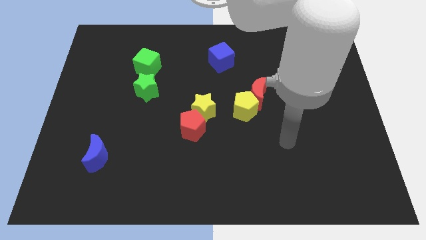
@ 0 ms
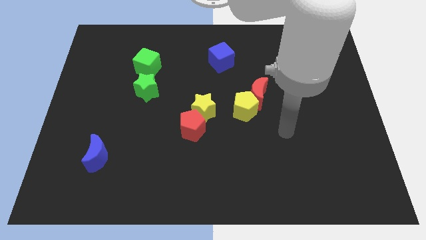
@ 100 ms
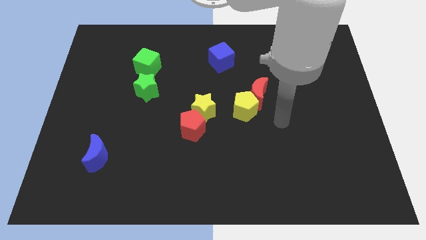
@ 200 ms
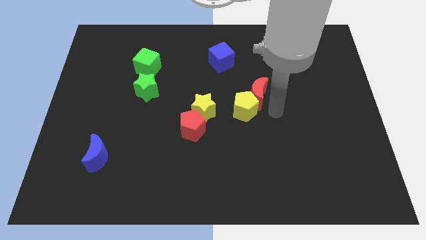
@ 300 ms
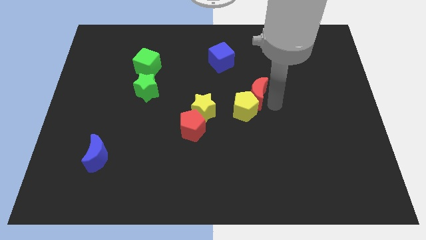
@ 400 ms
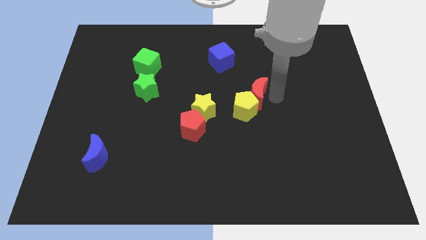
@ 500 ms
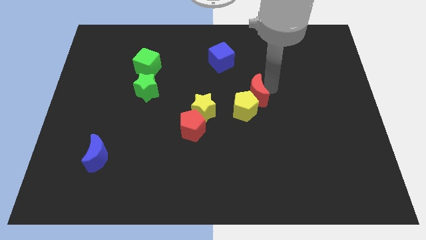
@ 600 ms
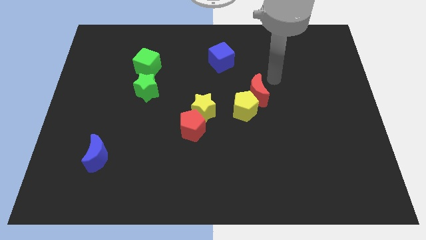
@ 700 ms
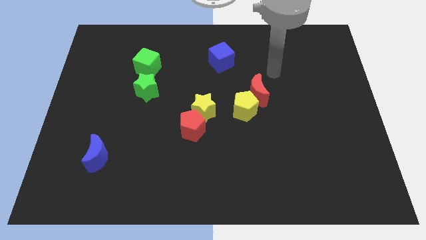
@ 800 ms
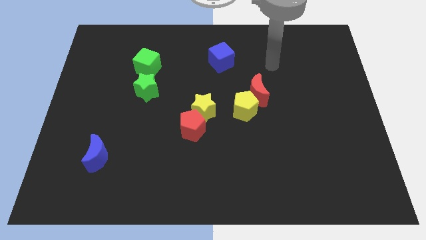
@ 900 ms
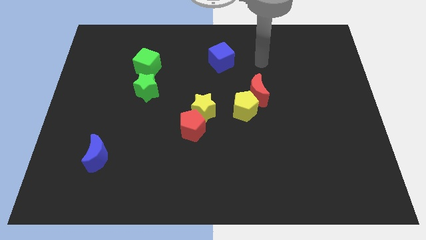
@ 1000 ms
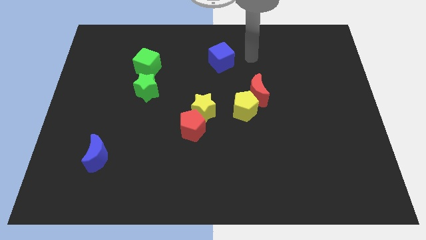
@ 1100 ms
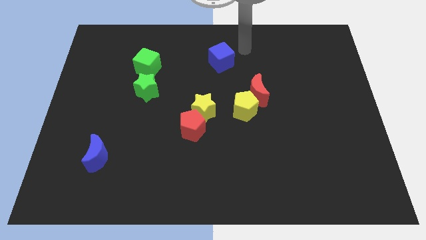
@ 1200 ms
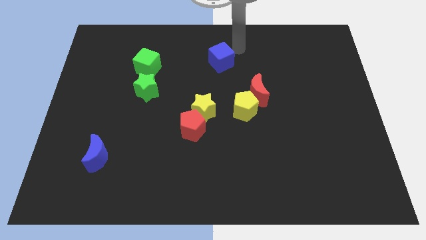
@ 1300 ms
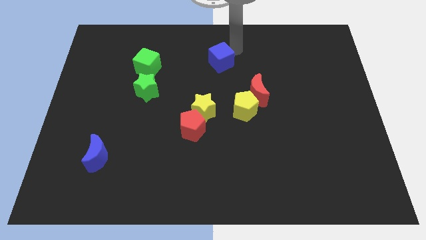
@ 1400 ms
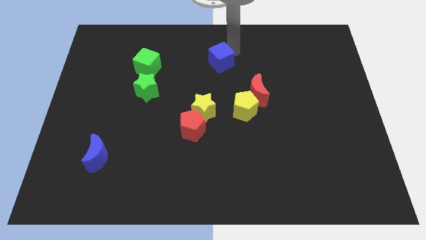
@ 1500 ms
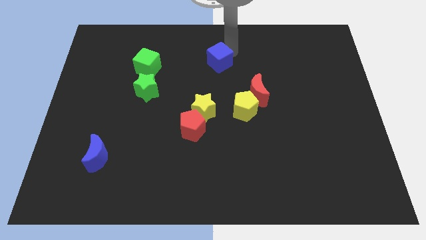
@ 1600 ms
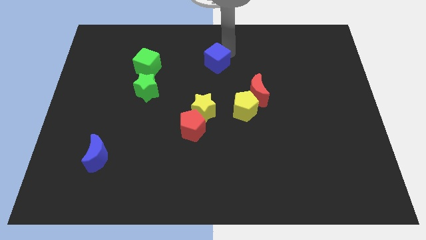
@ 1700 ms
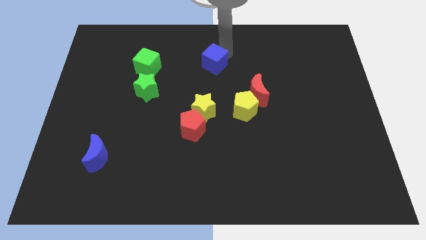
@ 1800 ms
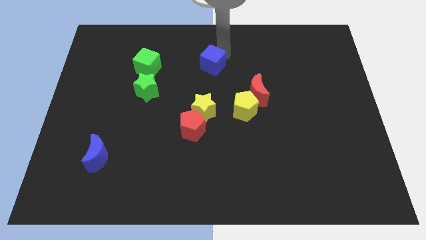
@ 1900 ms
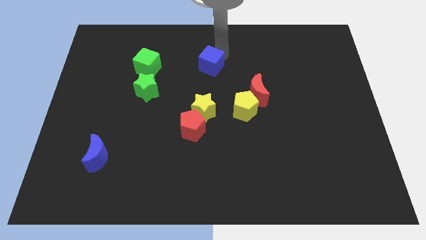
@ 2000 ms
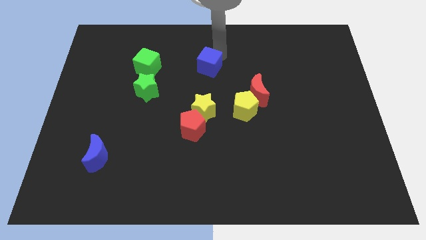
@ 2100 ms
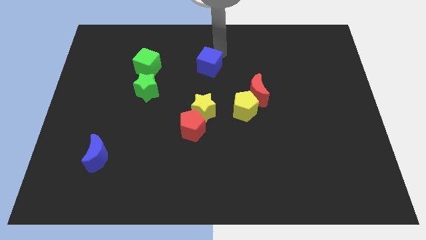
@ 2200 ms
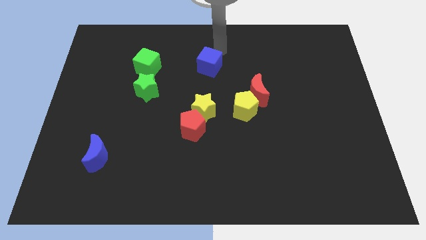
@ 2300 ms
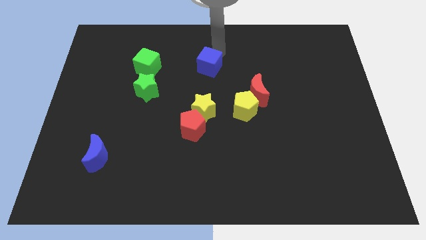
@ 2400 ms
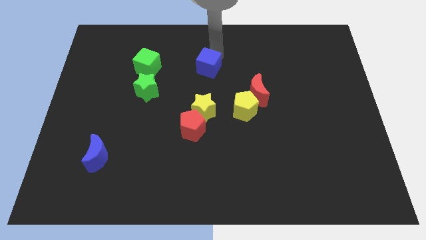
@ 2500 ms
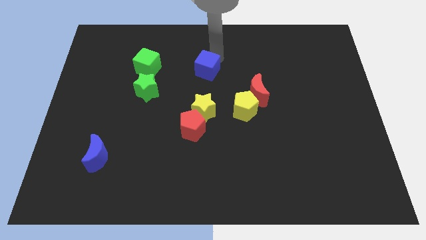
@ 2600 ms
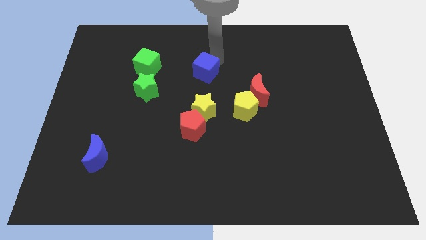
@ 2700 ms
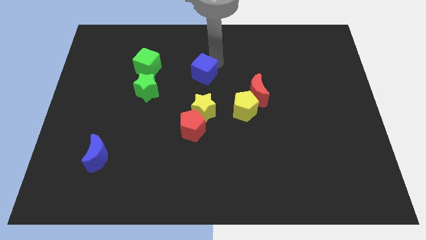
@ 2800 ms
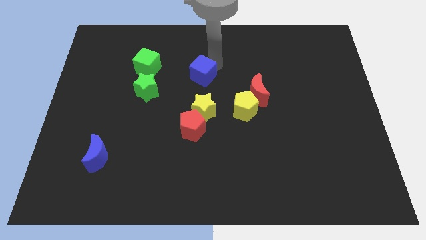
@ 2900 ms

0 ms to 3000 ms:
push the blue cube down and then left slightly

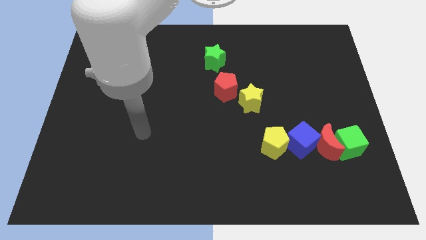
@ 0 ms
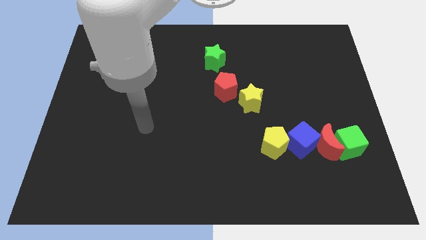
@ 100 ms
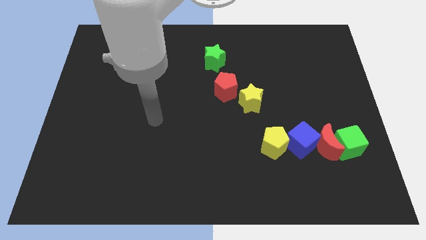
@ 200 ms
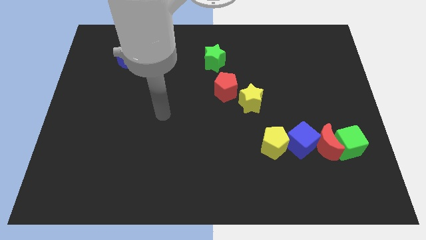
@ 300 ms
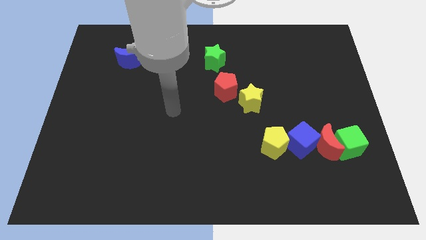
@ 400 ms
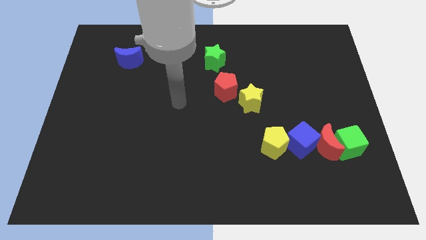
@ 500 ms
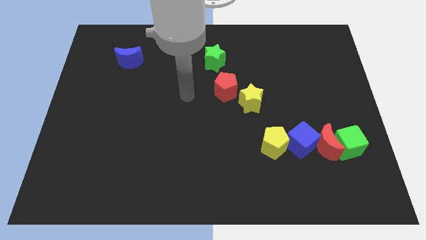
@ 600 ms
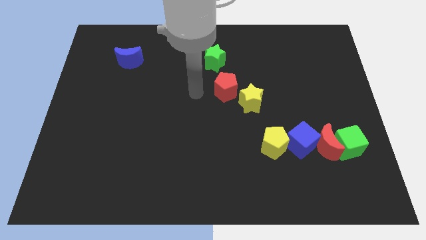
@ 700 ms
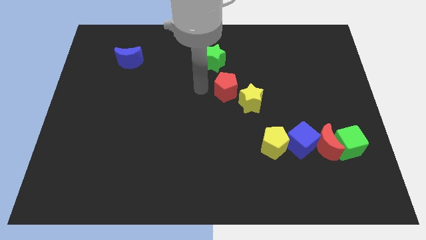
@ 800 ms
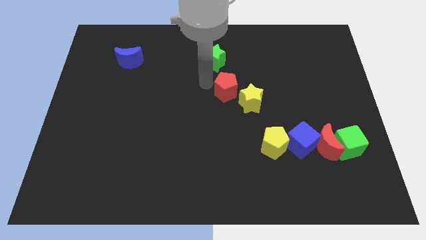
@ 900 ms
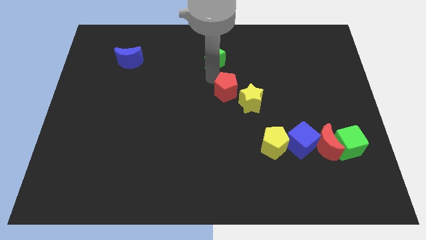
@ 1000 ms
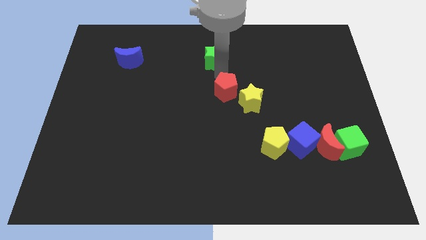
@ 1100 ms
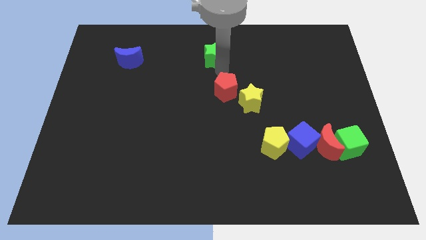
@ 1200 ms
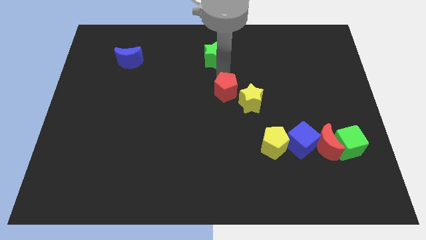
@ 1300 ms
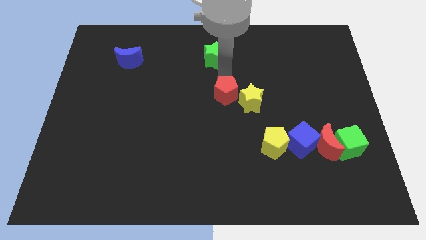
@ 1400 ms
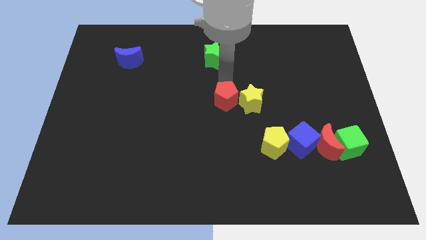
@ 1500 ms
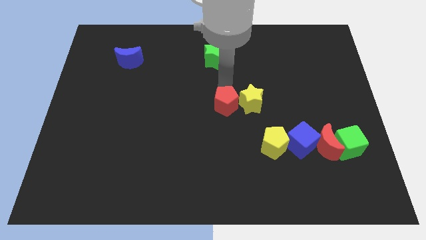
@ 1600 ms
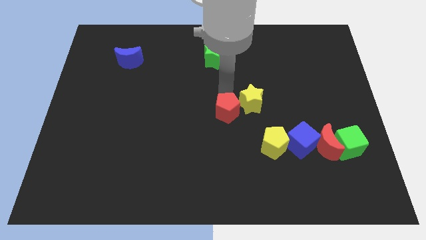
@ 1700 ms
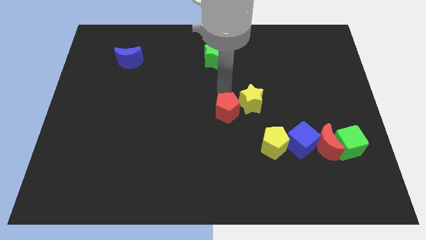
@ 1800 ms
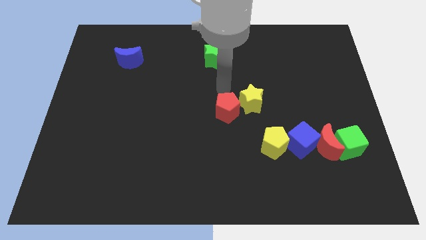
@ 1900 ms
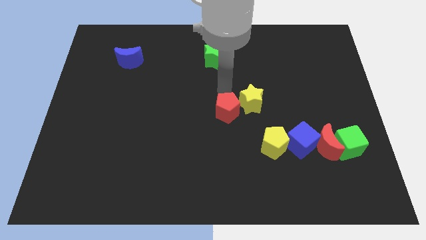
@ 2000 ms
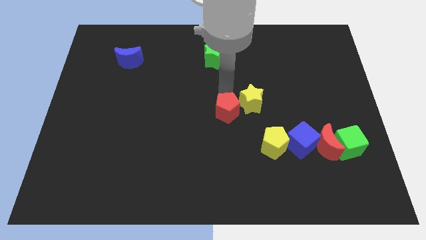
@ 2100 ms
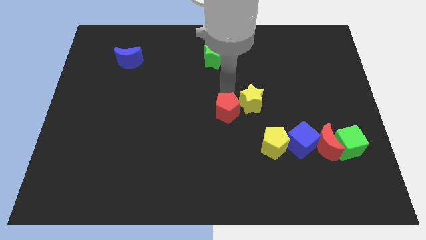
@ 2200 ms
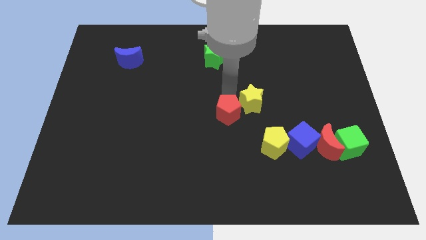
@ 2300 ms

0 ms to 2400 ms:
move the red pentagon somewhat downwards

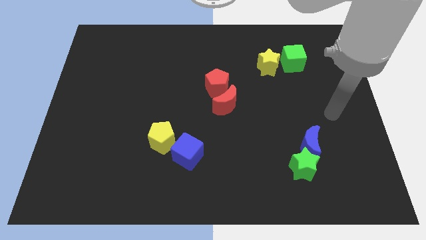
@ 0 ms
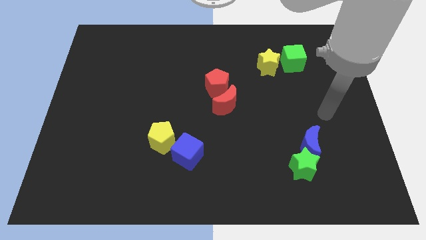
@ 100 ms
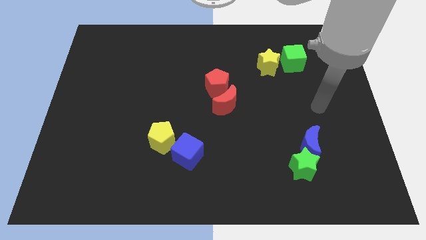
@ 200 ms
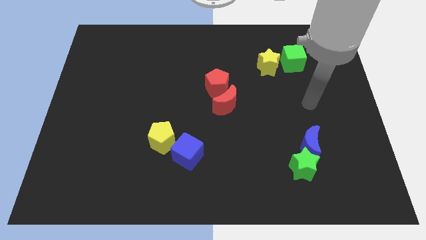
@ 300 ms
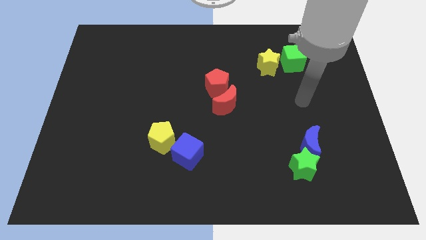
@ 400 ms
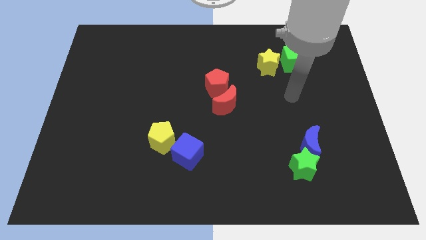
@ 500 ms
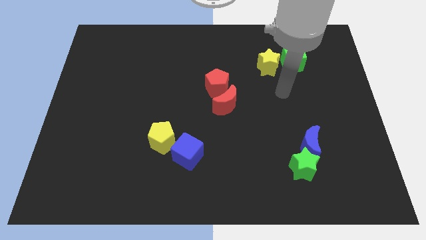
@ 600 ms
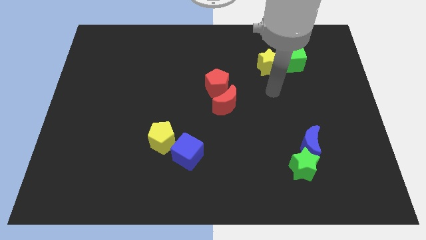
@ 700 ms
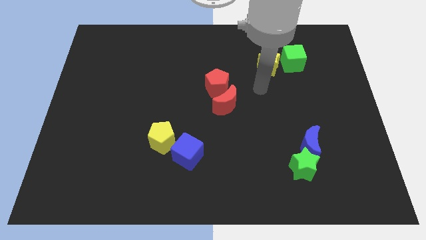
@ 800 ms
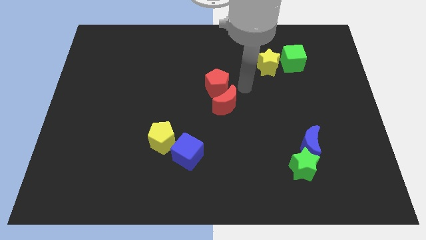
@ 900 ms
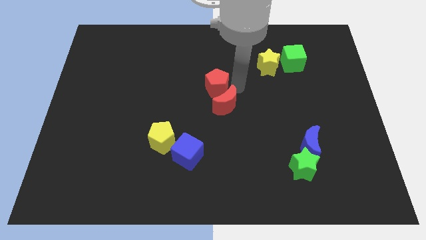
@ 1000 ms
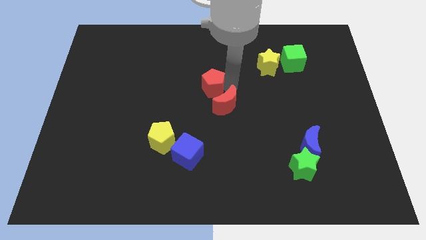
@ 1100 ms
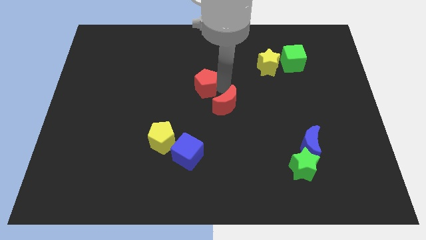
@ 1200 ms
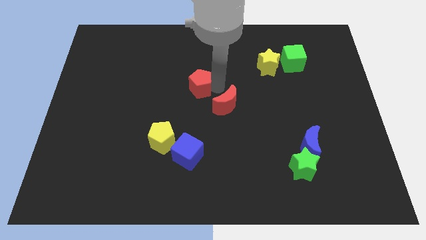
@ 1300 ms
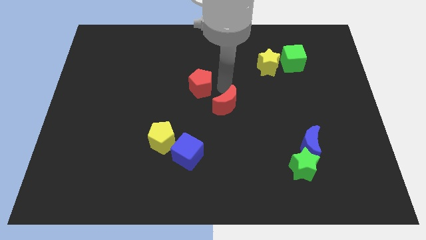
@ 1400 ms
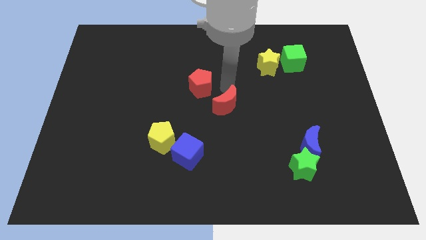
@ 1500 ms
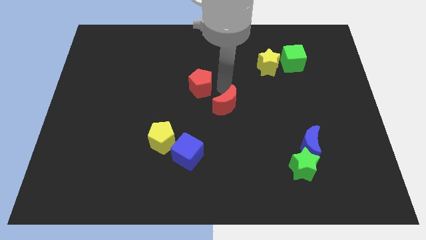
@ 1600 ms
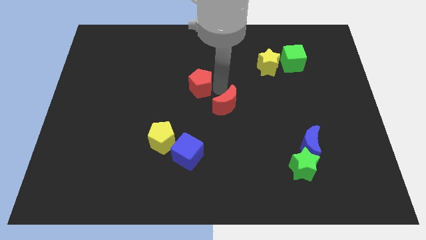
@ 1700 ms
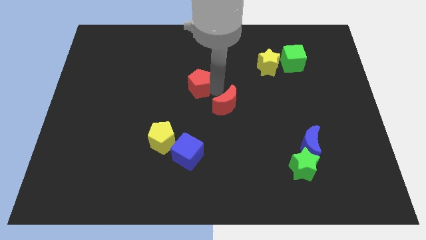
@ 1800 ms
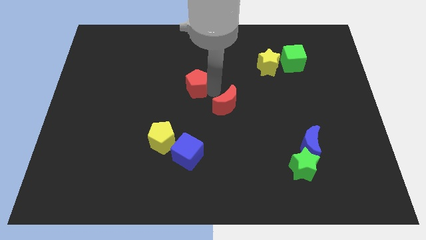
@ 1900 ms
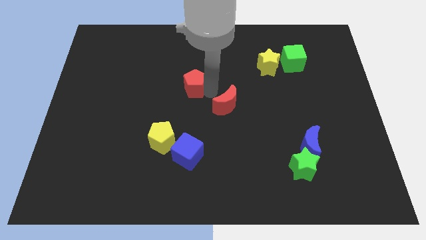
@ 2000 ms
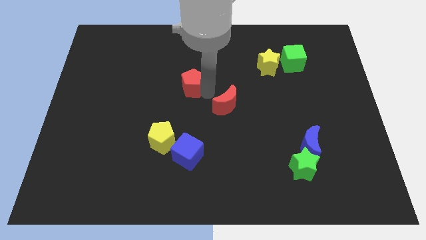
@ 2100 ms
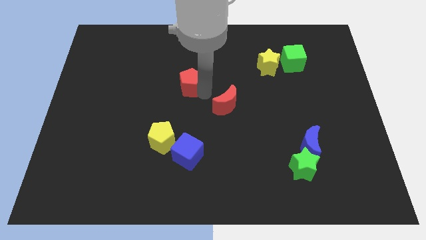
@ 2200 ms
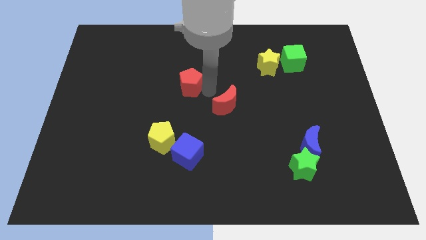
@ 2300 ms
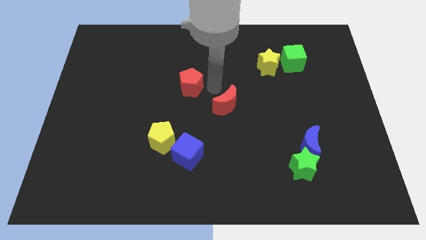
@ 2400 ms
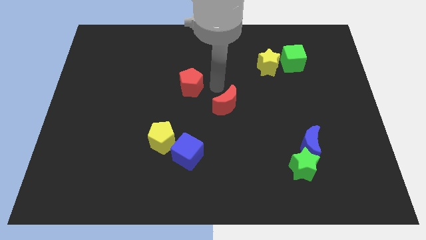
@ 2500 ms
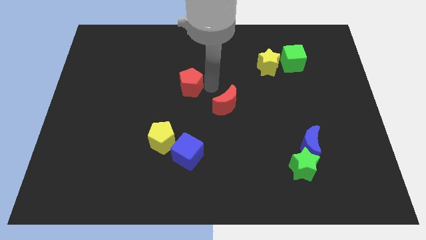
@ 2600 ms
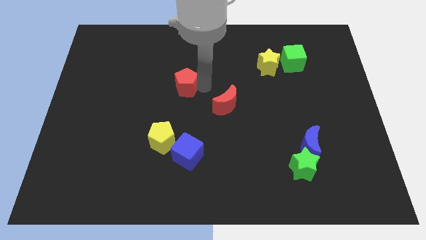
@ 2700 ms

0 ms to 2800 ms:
push the red pentagon a little bit left
